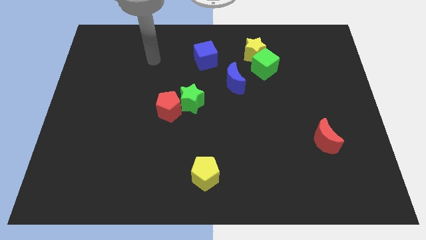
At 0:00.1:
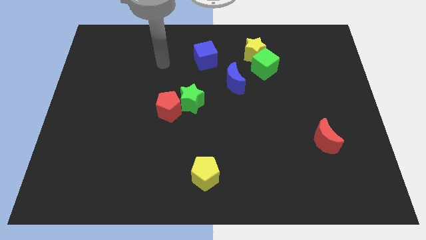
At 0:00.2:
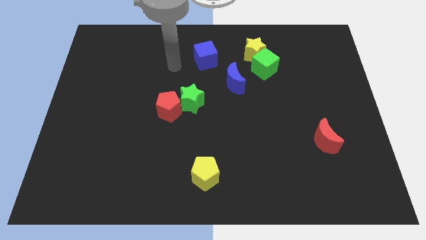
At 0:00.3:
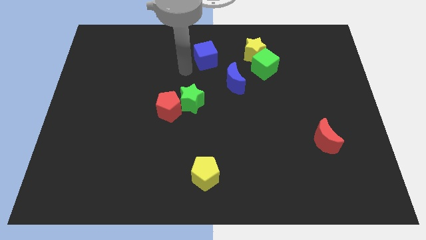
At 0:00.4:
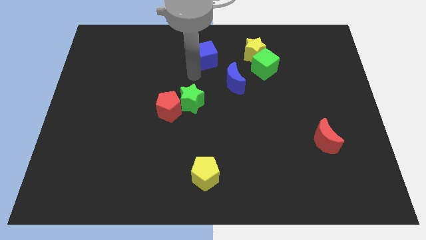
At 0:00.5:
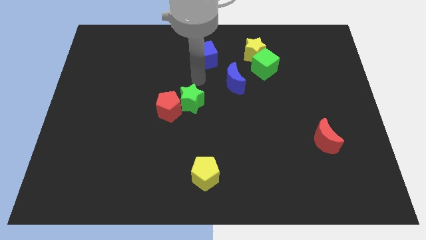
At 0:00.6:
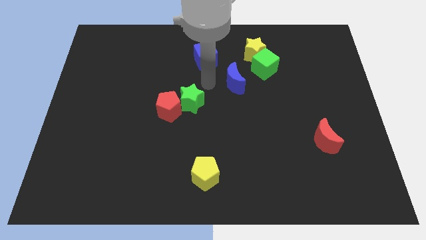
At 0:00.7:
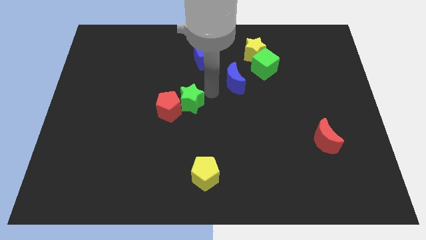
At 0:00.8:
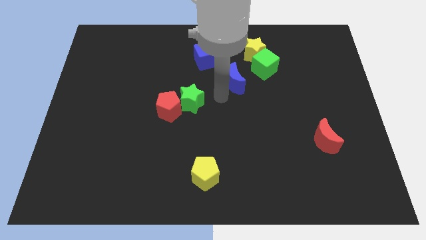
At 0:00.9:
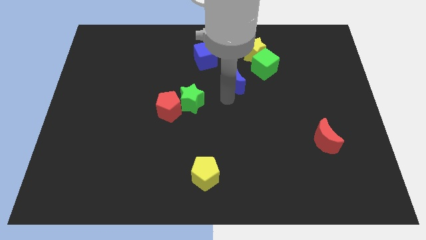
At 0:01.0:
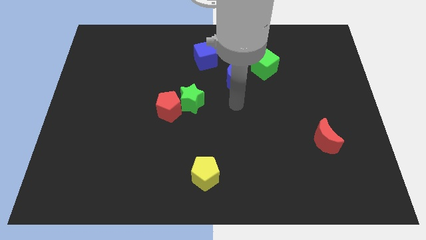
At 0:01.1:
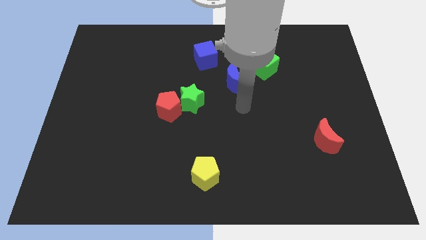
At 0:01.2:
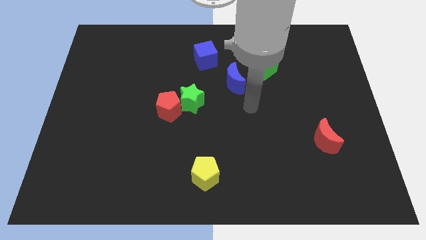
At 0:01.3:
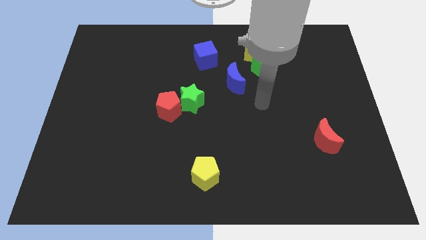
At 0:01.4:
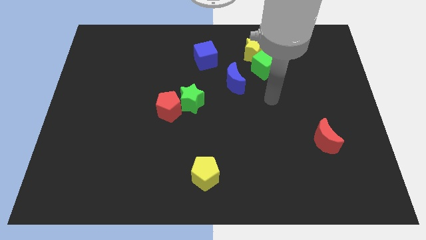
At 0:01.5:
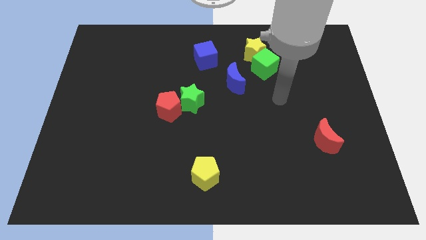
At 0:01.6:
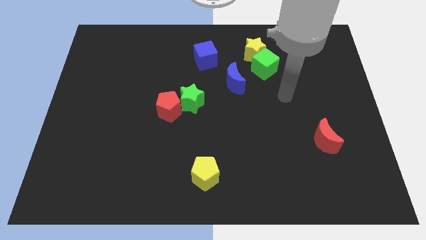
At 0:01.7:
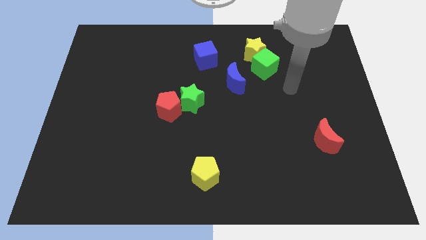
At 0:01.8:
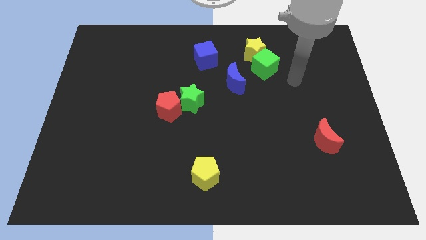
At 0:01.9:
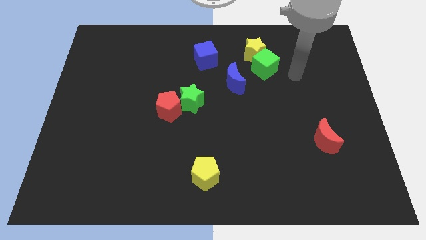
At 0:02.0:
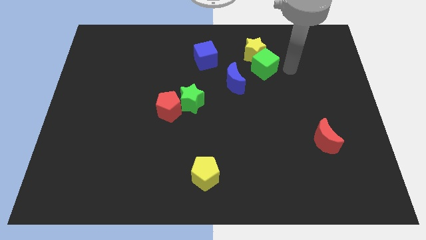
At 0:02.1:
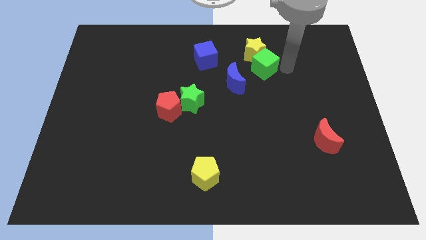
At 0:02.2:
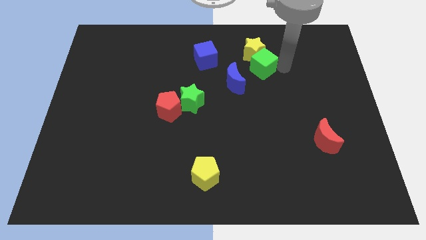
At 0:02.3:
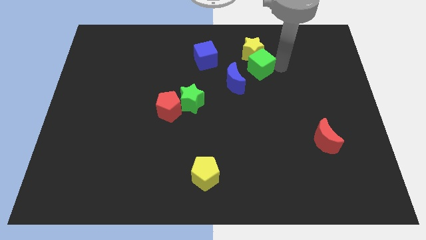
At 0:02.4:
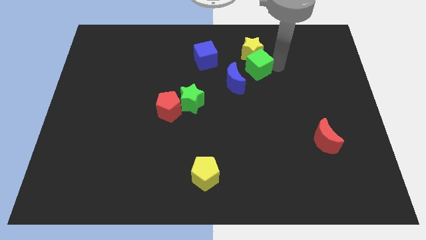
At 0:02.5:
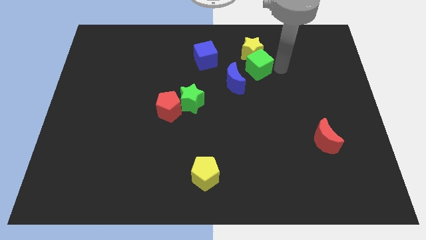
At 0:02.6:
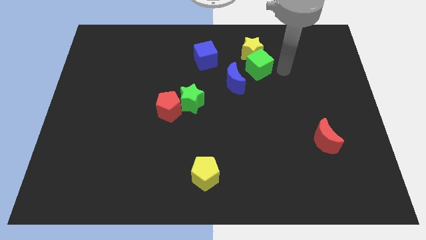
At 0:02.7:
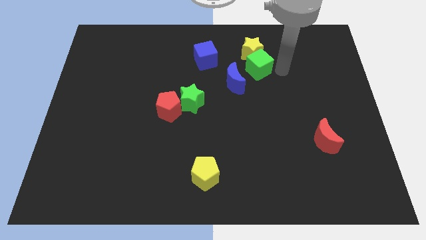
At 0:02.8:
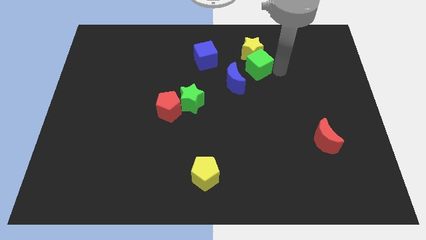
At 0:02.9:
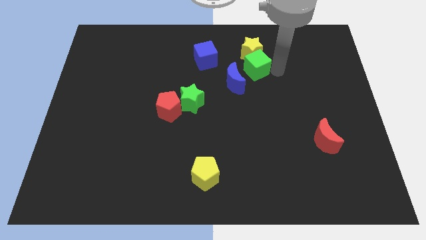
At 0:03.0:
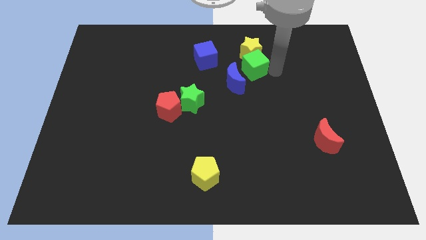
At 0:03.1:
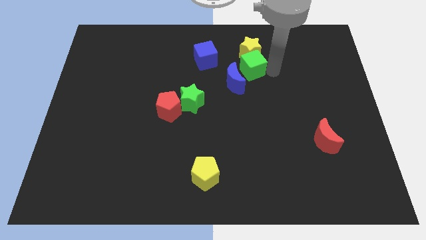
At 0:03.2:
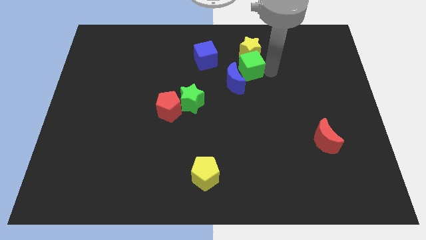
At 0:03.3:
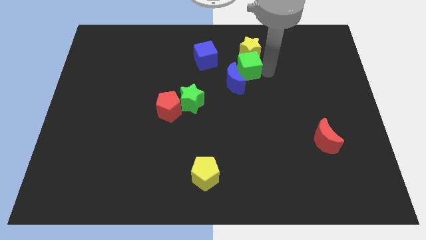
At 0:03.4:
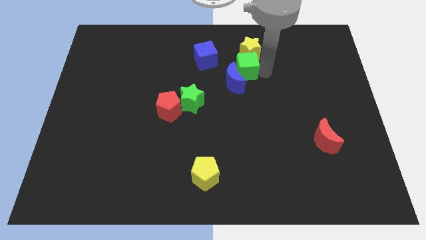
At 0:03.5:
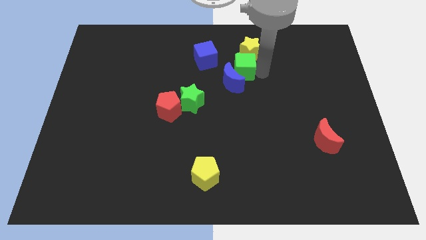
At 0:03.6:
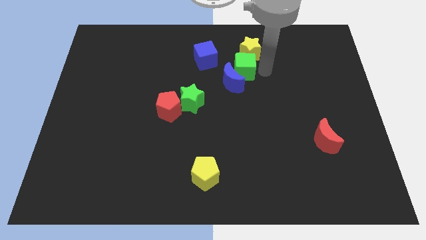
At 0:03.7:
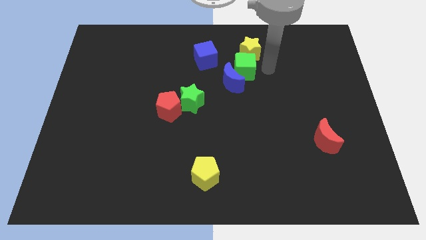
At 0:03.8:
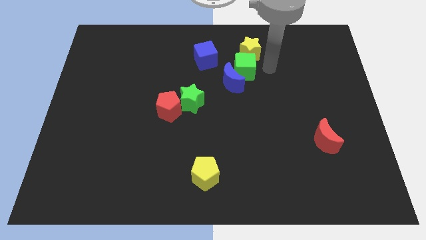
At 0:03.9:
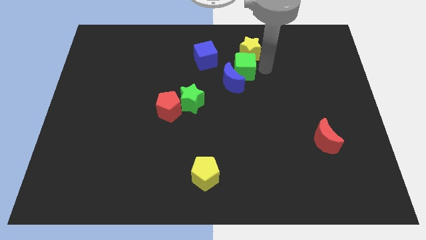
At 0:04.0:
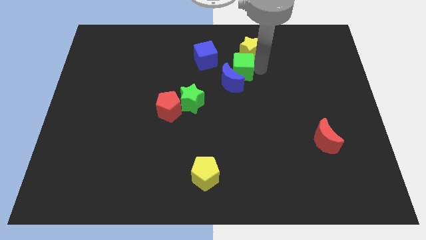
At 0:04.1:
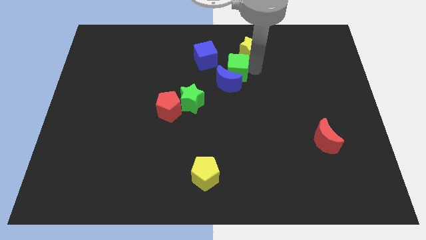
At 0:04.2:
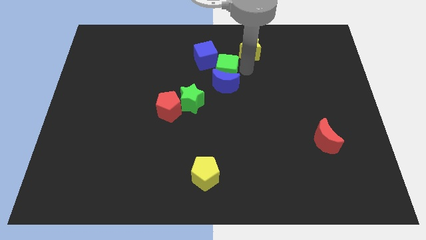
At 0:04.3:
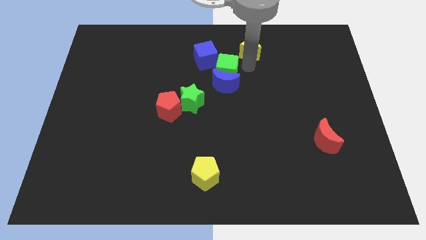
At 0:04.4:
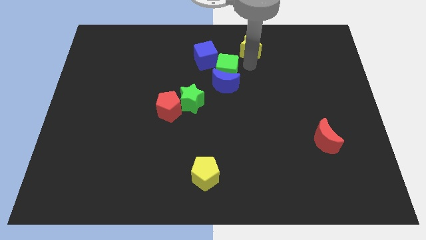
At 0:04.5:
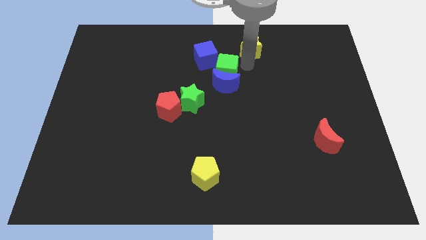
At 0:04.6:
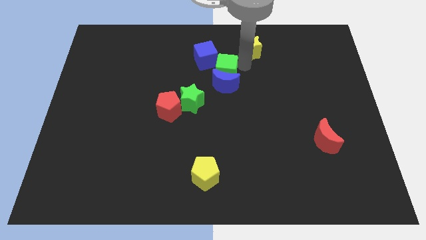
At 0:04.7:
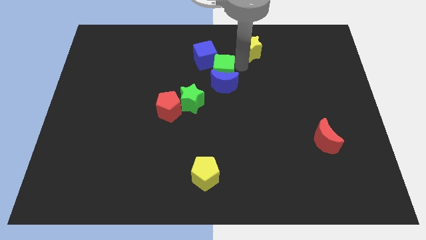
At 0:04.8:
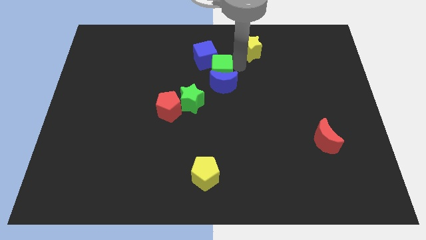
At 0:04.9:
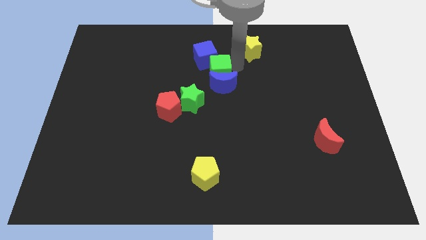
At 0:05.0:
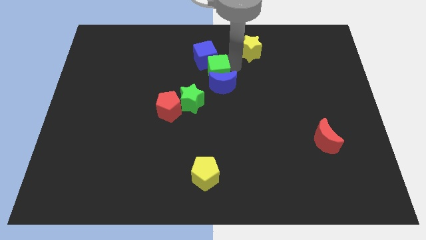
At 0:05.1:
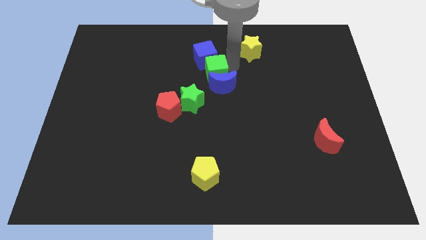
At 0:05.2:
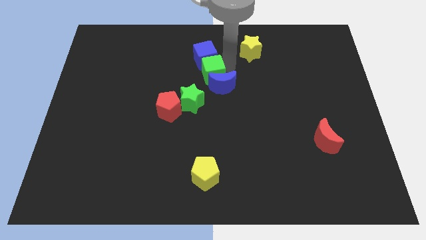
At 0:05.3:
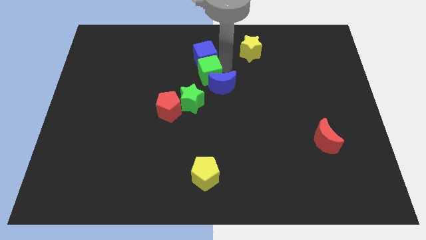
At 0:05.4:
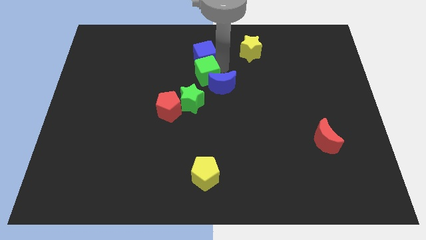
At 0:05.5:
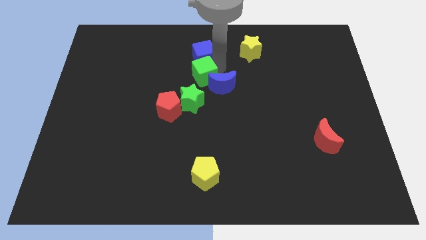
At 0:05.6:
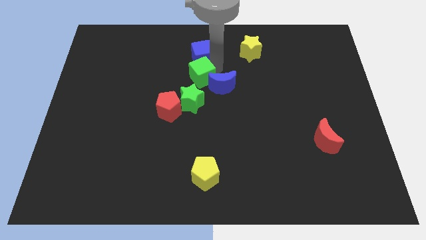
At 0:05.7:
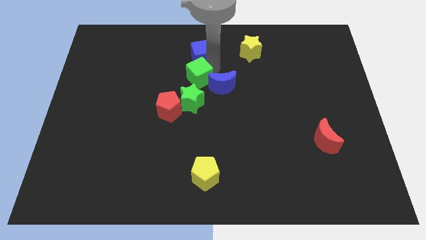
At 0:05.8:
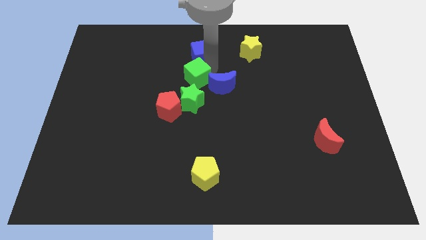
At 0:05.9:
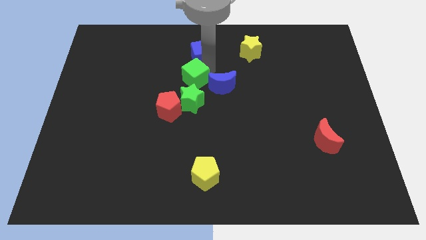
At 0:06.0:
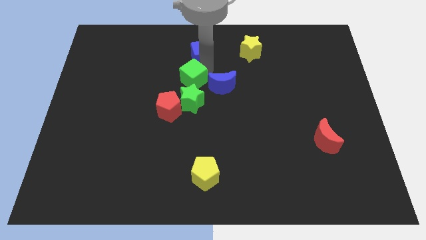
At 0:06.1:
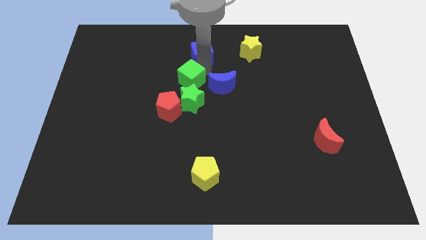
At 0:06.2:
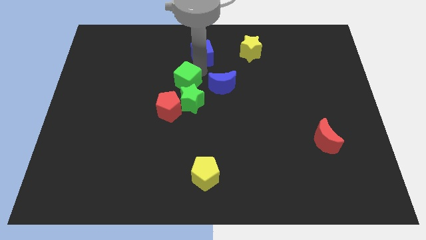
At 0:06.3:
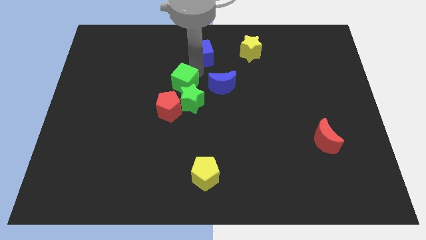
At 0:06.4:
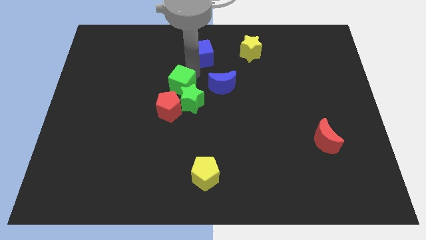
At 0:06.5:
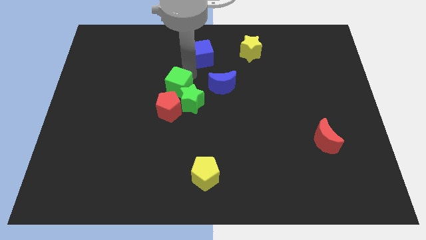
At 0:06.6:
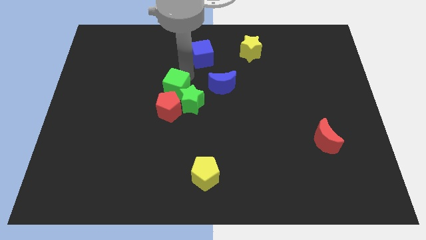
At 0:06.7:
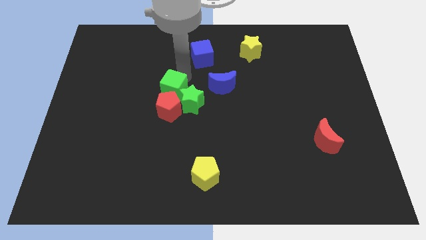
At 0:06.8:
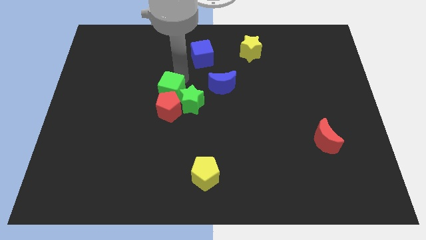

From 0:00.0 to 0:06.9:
move the green cube close to the red pentagon
